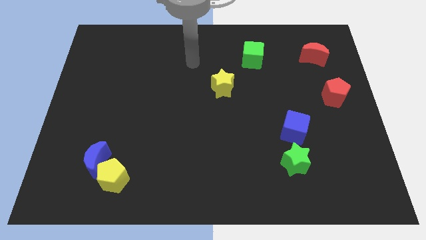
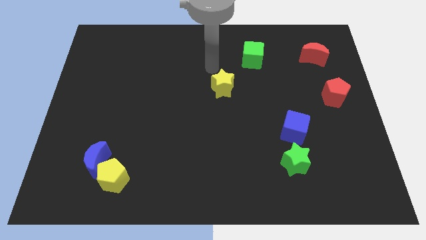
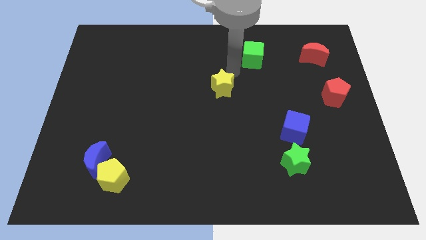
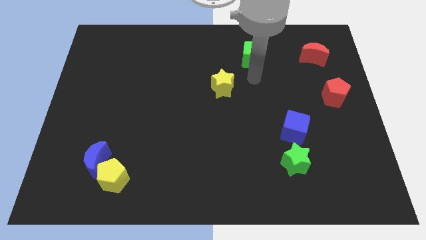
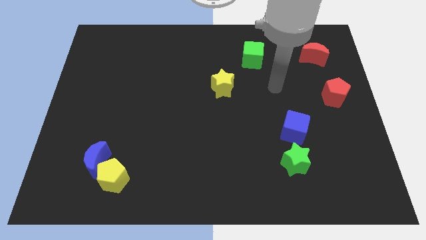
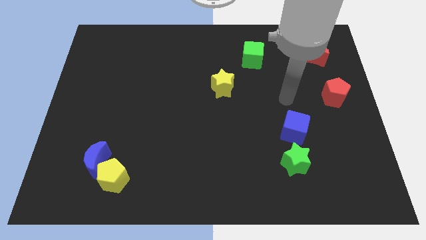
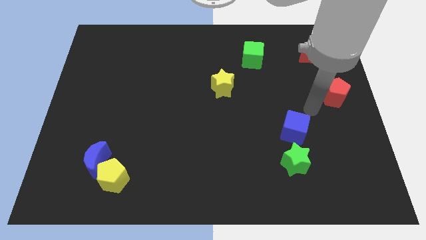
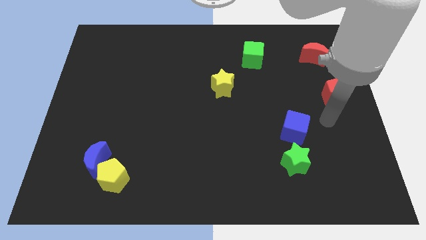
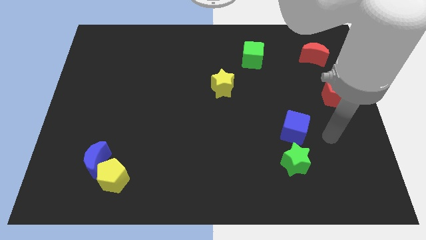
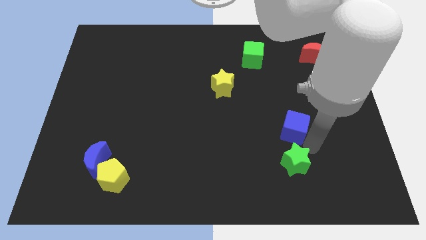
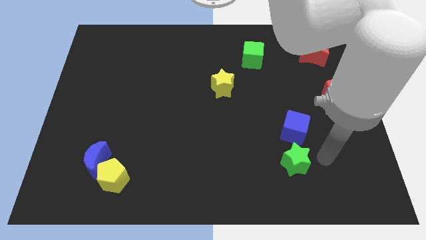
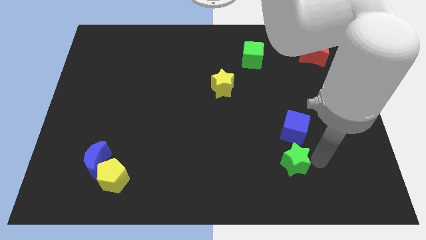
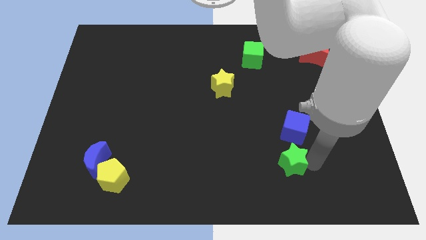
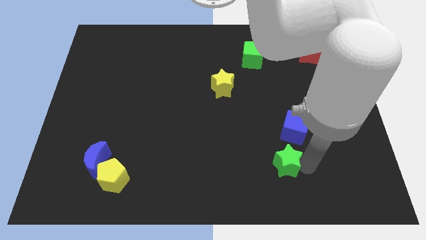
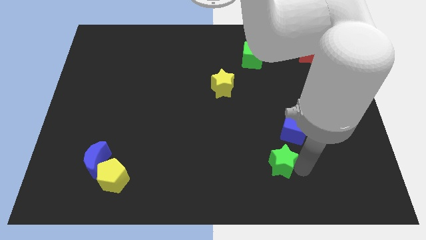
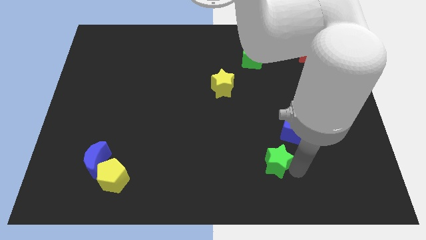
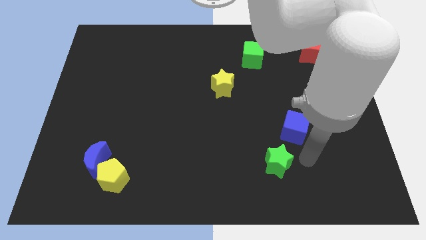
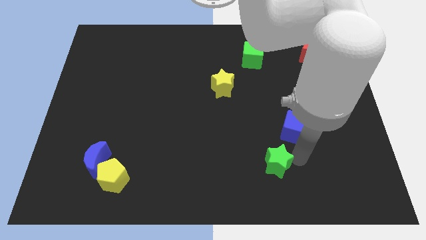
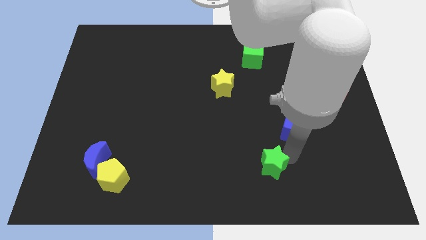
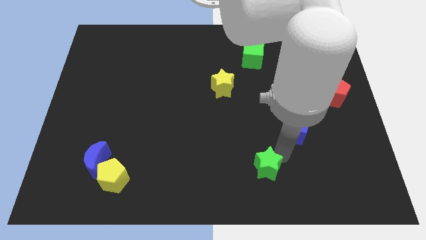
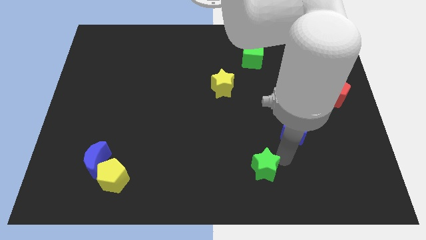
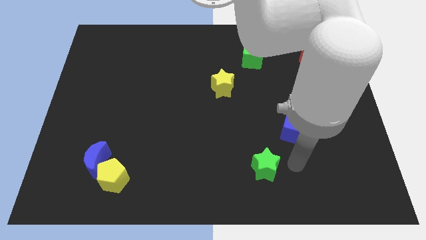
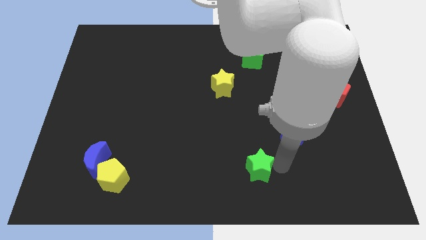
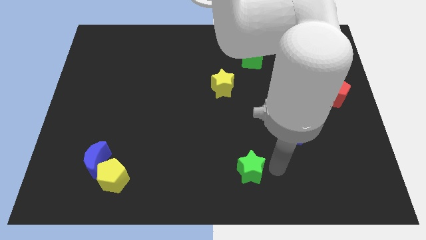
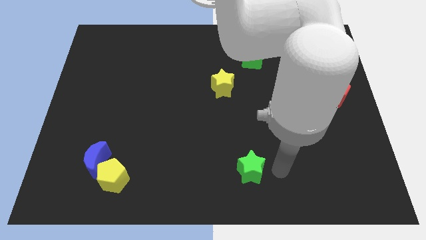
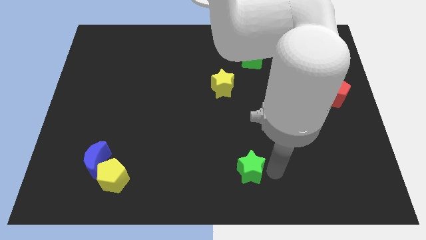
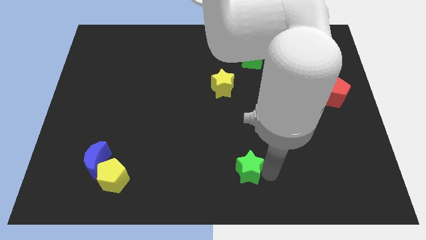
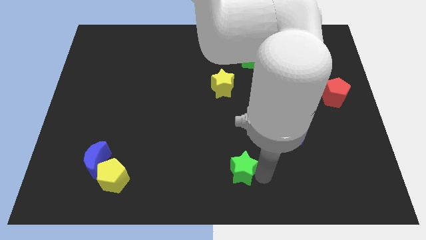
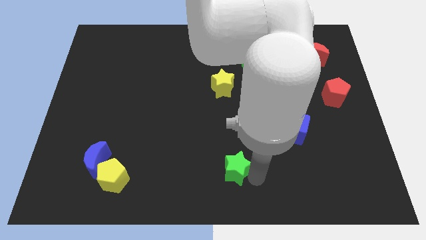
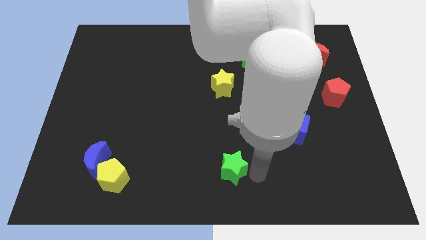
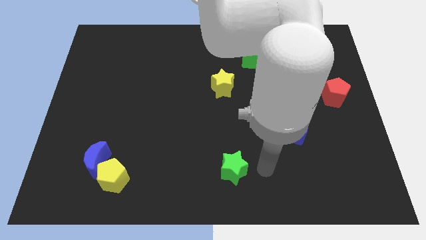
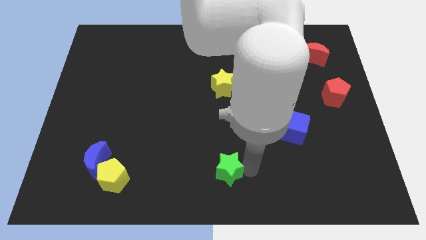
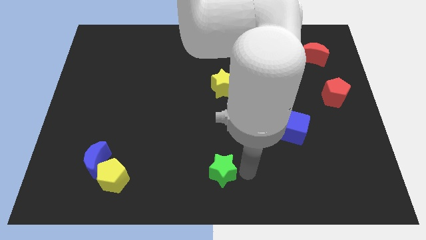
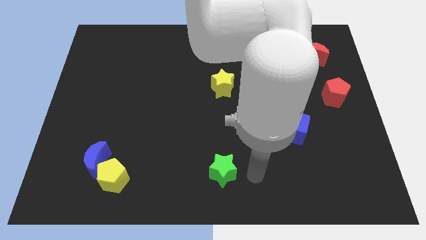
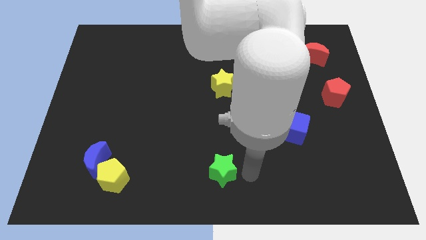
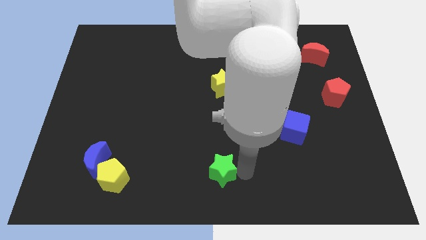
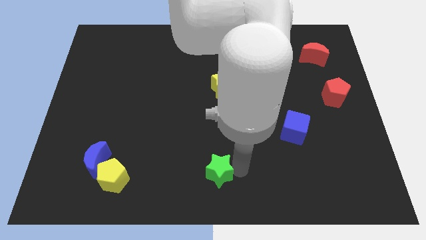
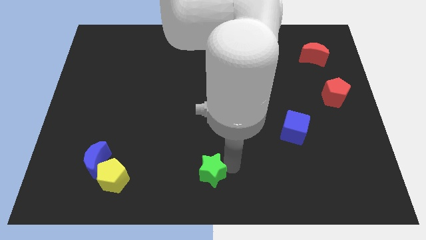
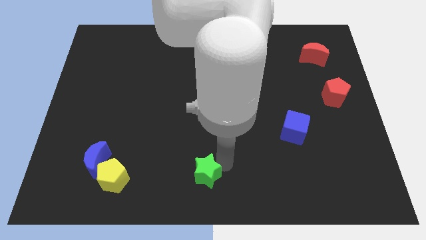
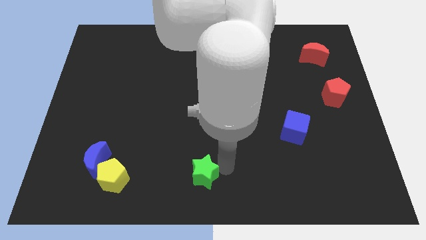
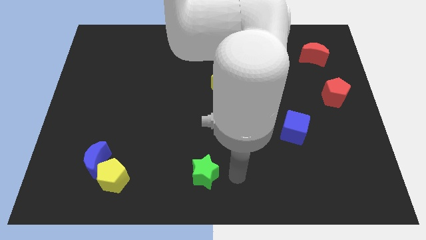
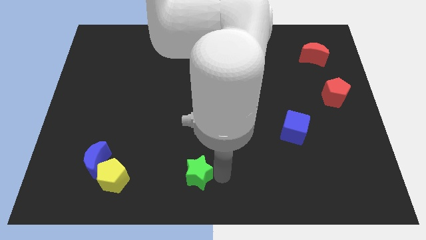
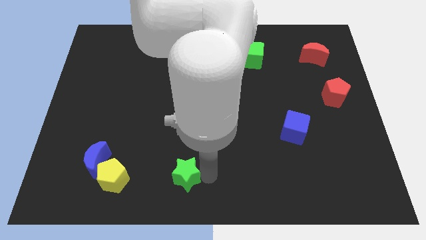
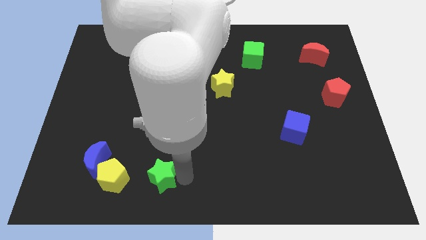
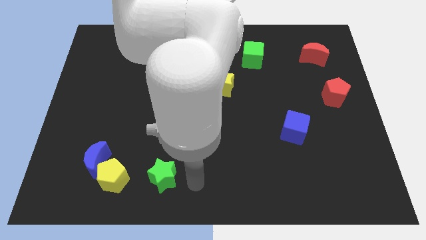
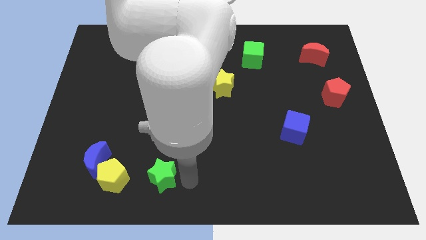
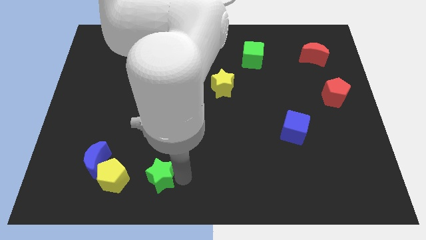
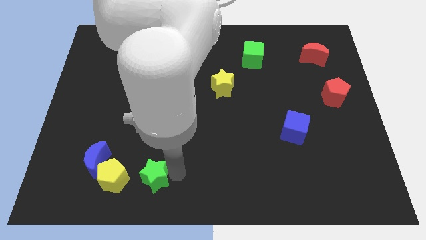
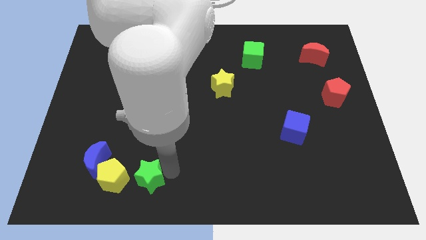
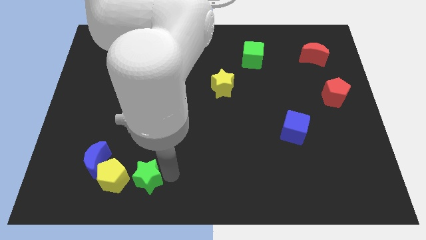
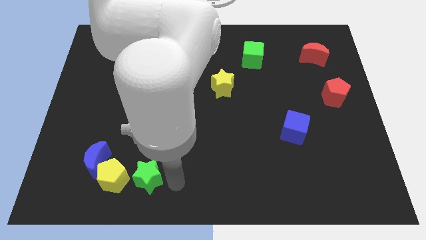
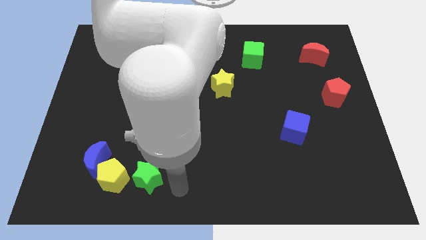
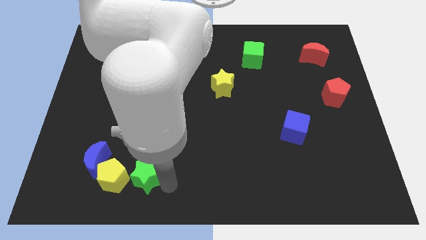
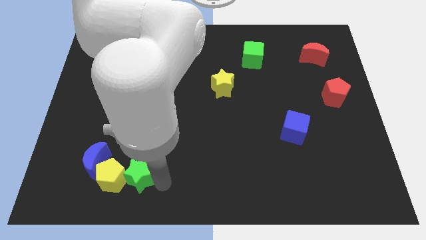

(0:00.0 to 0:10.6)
slide the green star towards the yellow pentagon

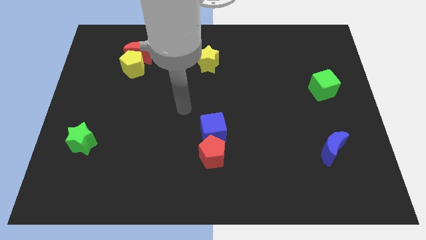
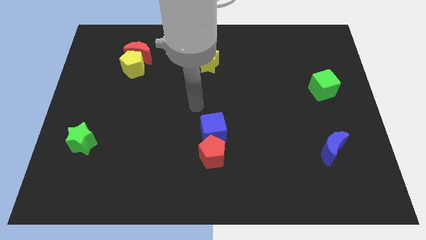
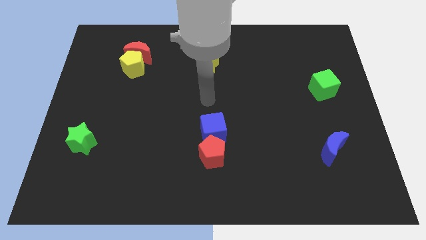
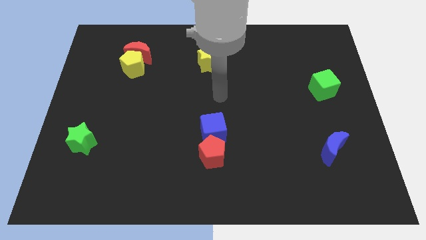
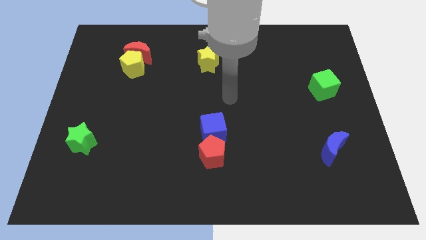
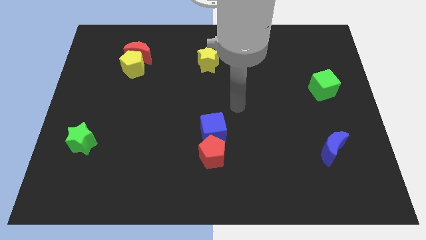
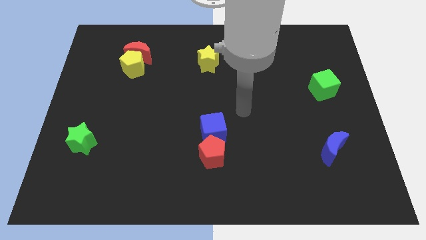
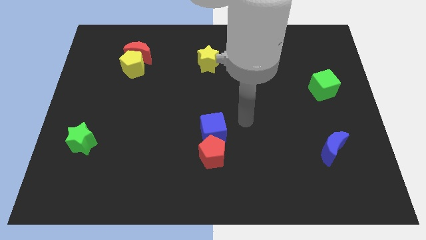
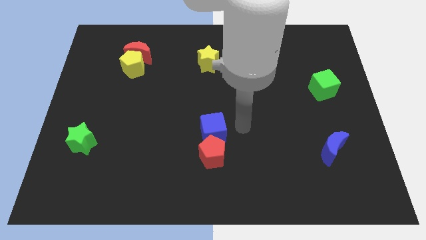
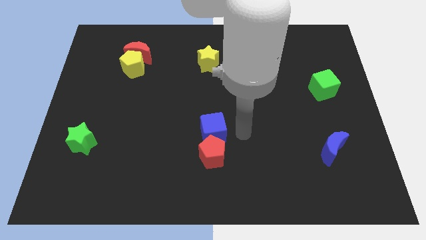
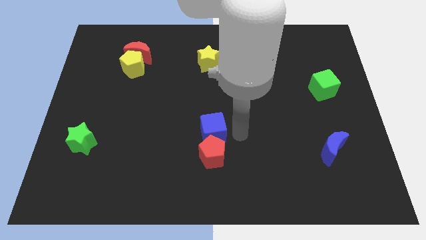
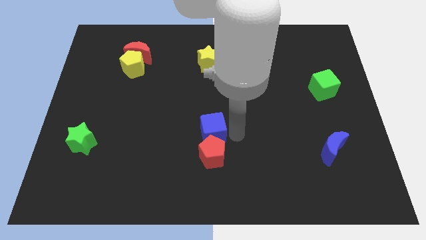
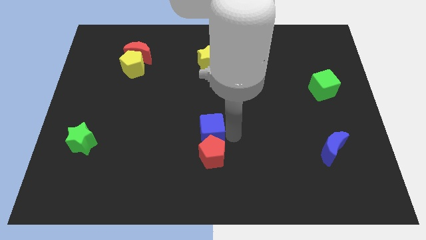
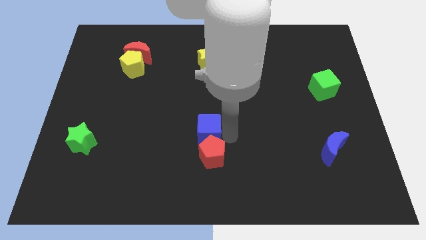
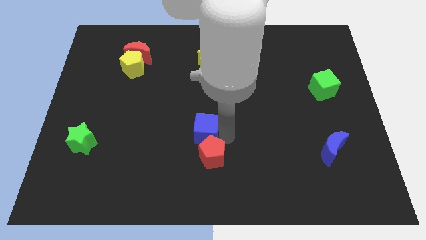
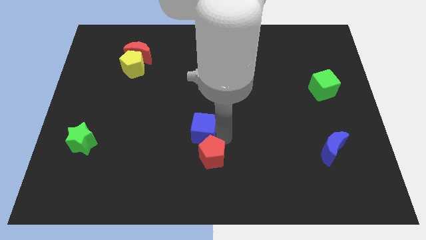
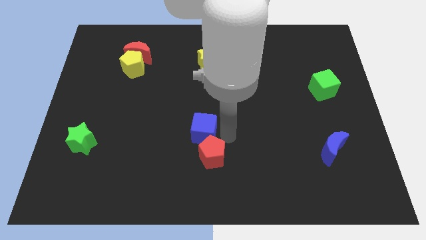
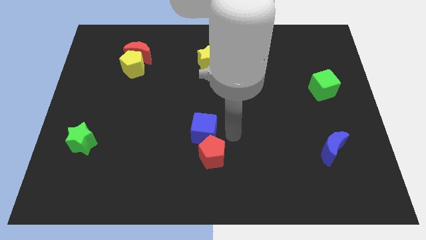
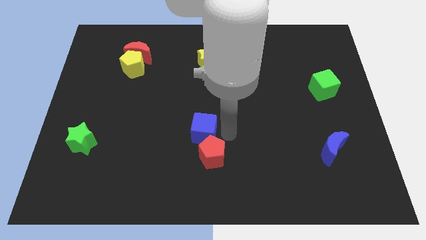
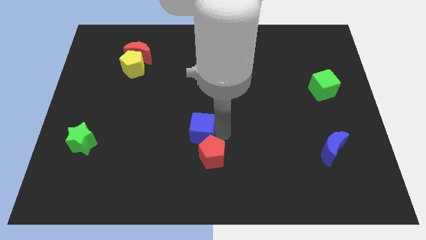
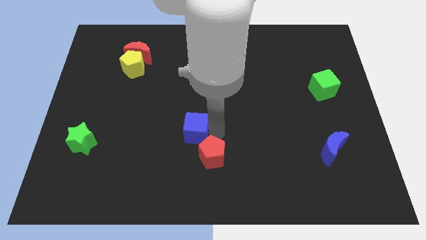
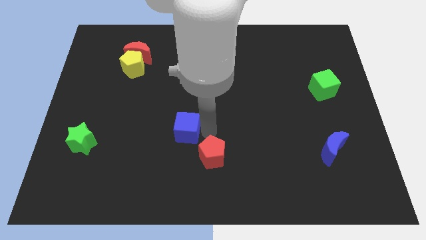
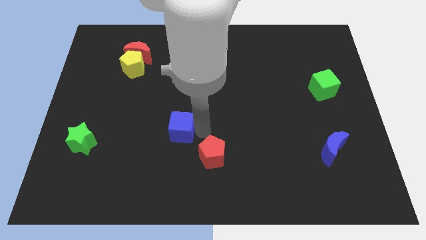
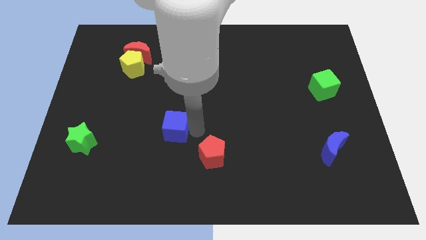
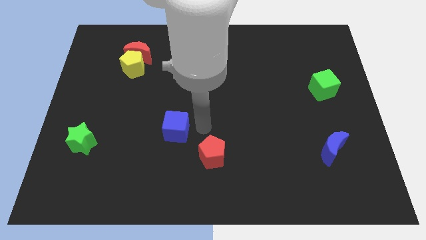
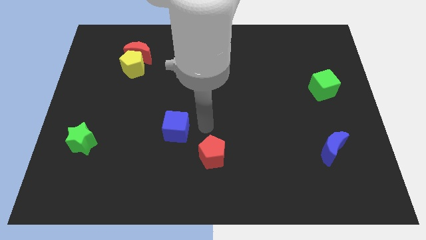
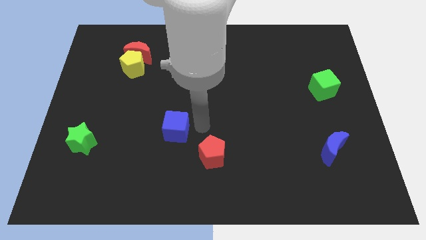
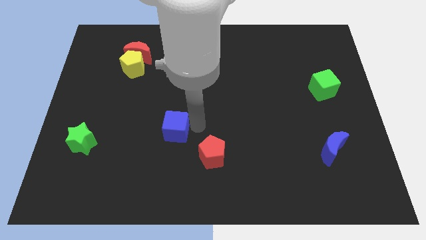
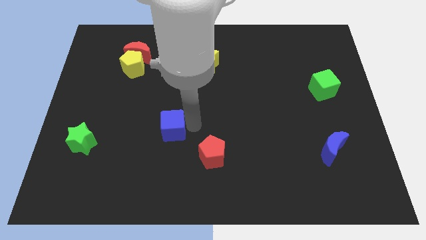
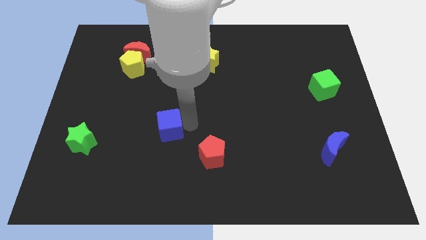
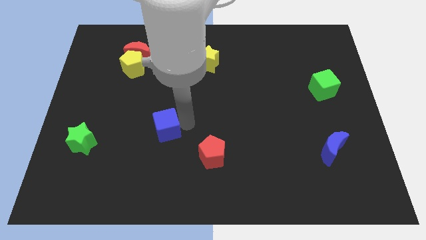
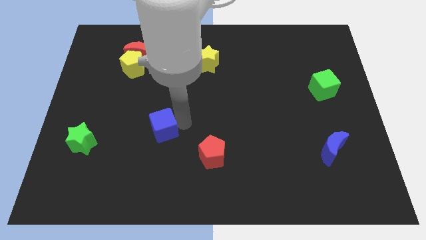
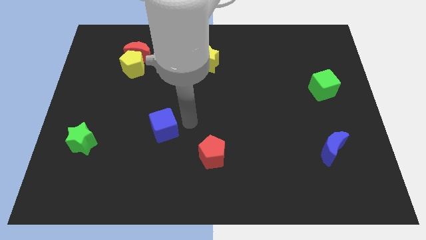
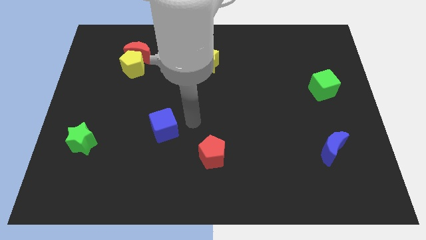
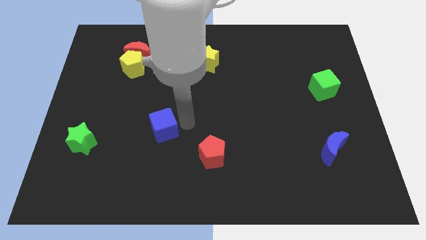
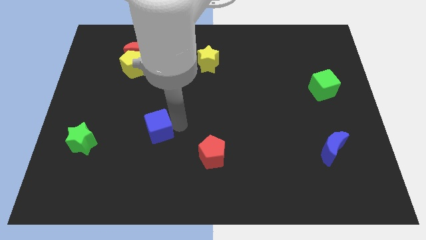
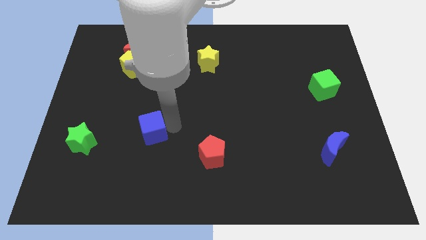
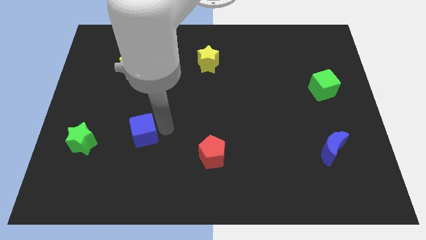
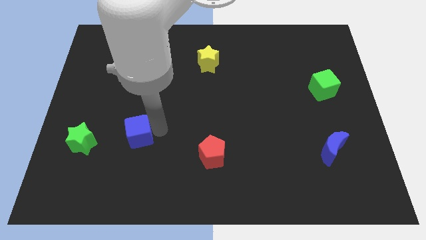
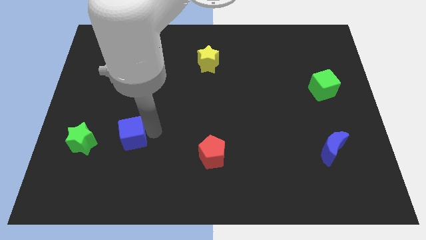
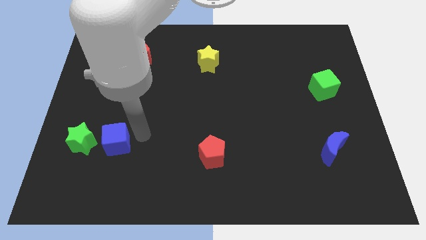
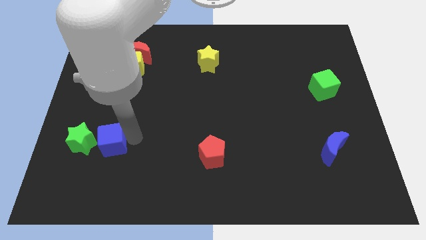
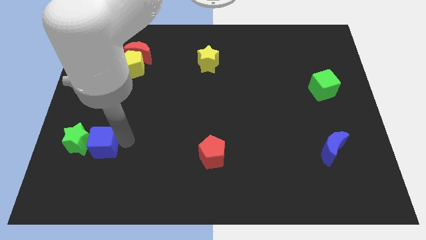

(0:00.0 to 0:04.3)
slide the blue cube next to the green star
